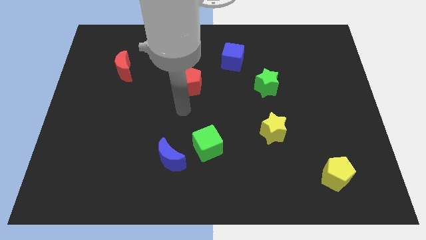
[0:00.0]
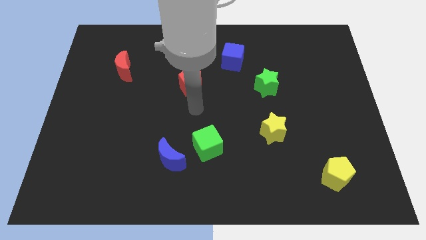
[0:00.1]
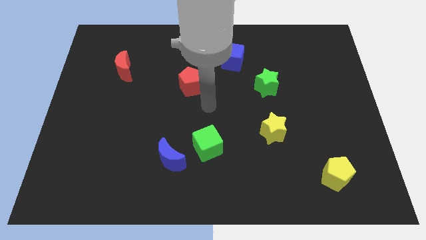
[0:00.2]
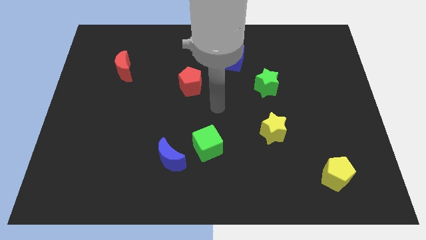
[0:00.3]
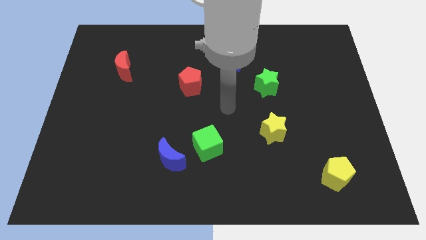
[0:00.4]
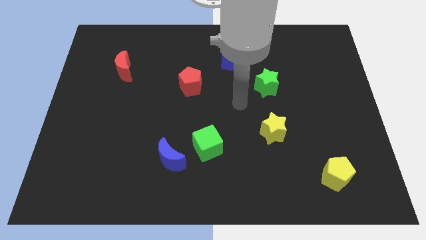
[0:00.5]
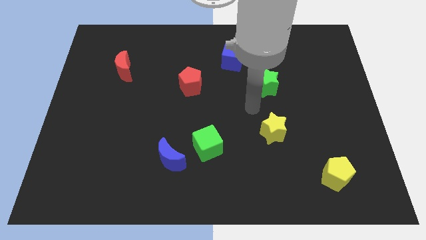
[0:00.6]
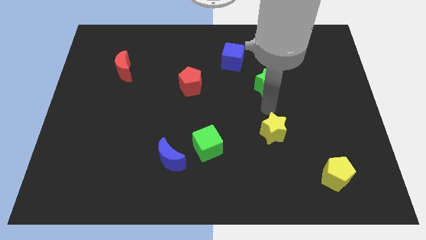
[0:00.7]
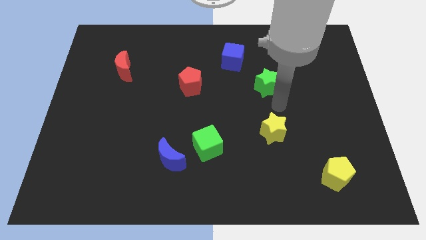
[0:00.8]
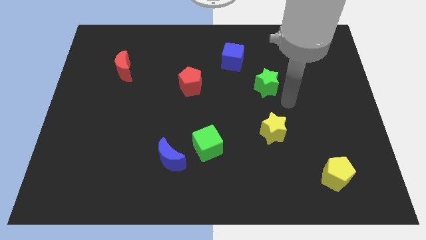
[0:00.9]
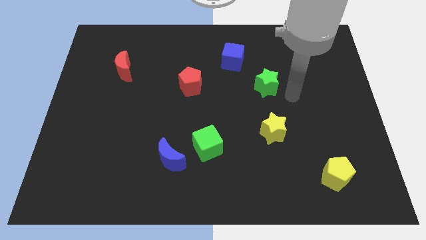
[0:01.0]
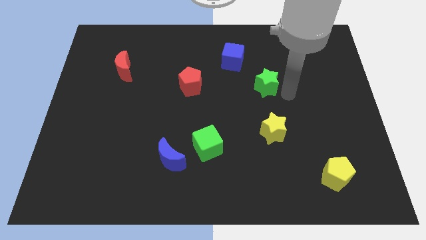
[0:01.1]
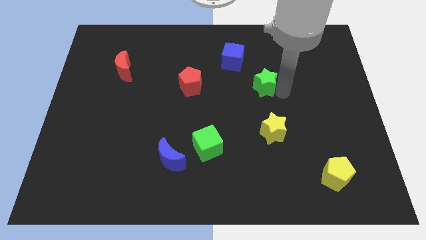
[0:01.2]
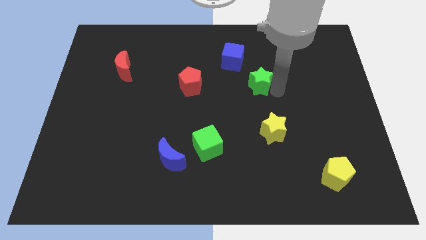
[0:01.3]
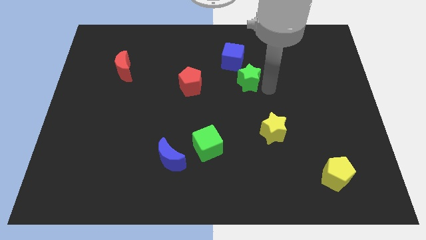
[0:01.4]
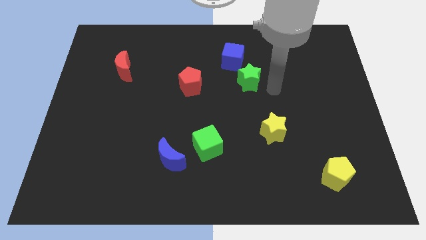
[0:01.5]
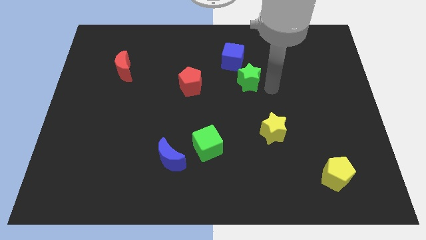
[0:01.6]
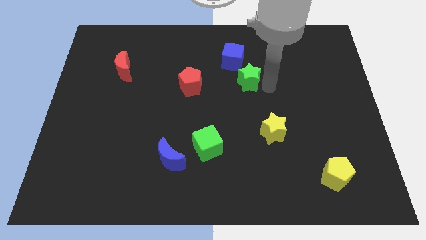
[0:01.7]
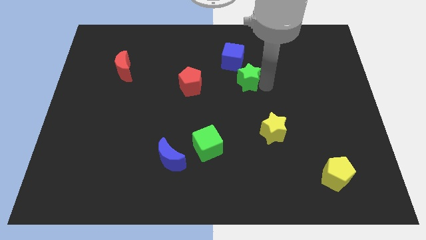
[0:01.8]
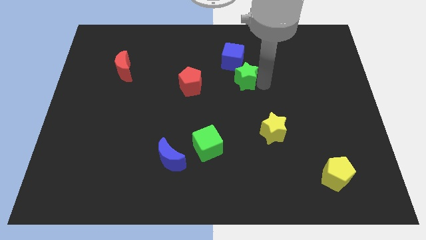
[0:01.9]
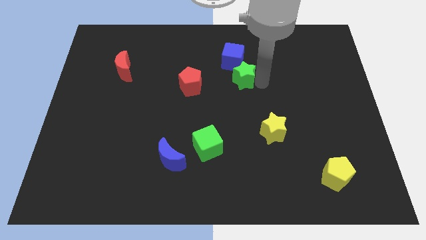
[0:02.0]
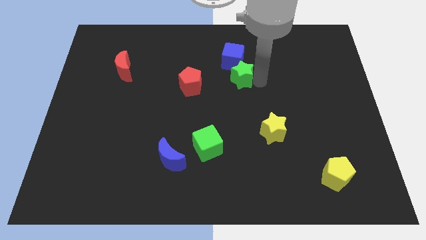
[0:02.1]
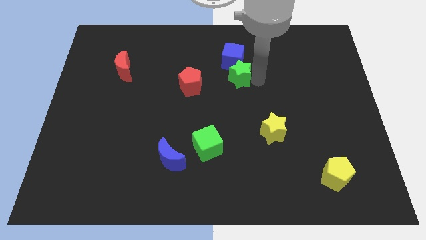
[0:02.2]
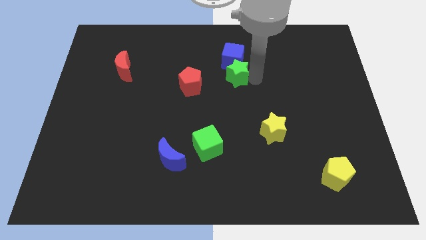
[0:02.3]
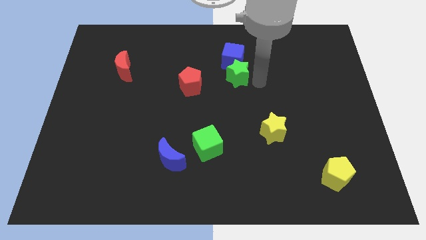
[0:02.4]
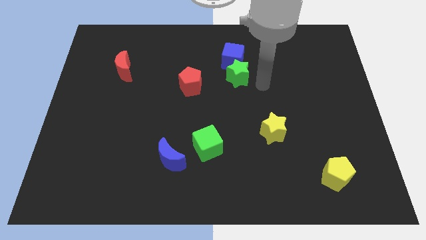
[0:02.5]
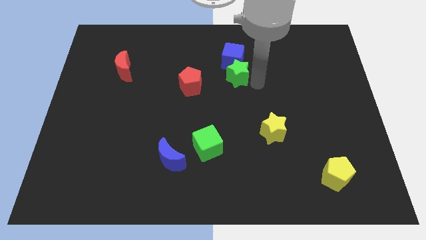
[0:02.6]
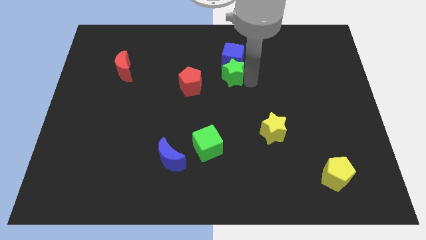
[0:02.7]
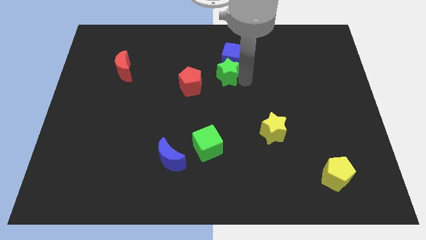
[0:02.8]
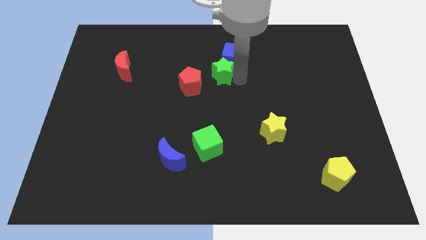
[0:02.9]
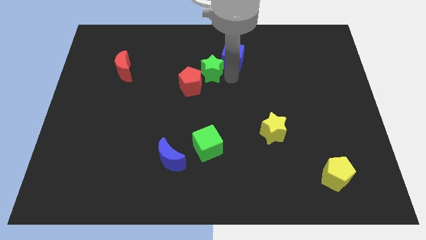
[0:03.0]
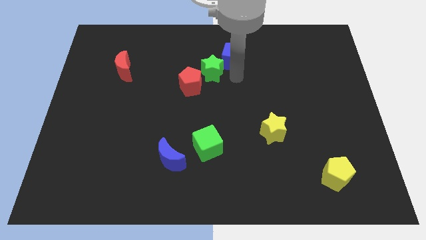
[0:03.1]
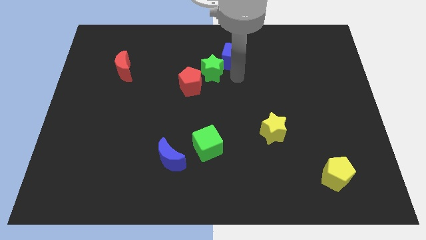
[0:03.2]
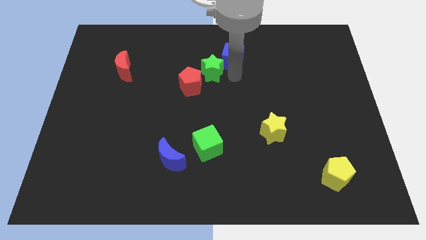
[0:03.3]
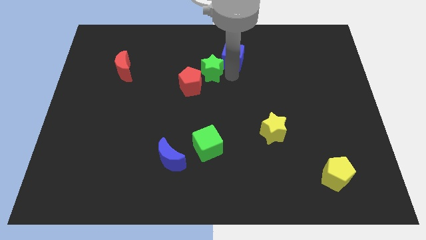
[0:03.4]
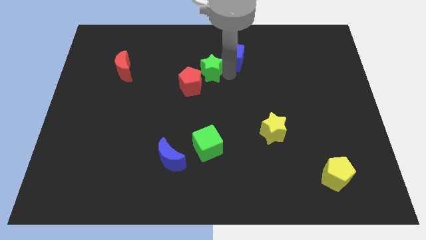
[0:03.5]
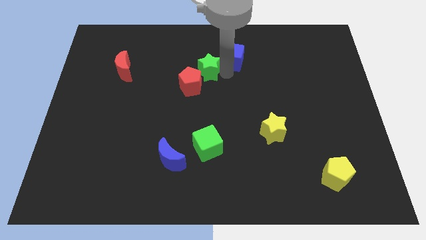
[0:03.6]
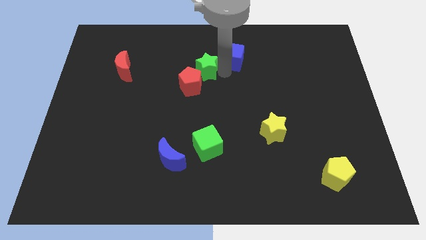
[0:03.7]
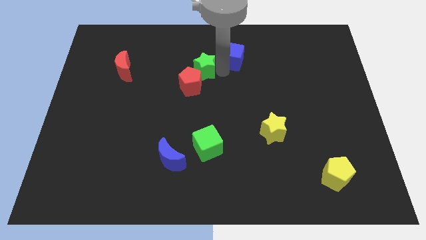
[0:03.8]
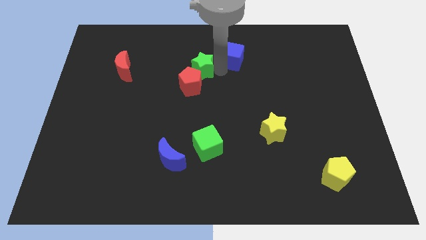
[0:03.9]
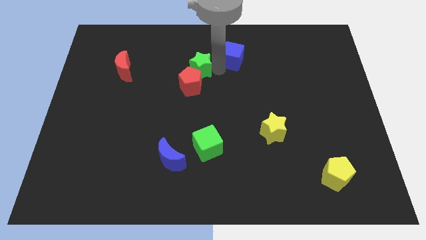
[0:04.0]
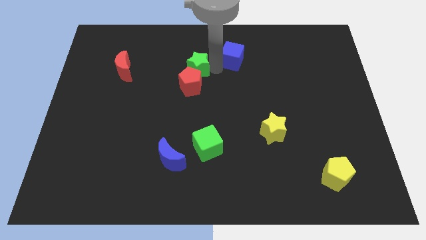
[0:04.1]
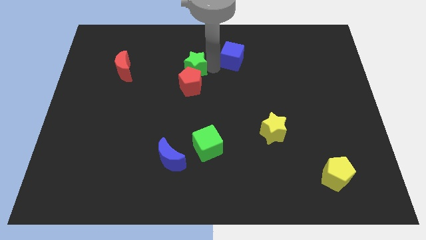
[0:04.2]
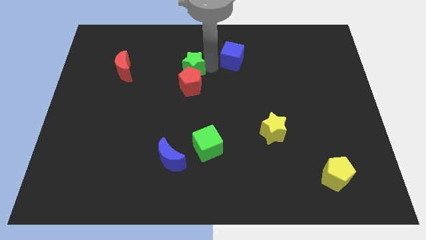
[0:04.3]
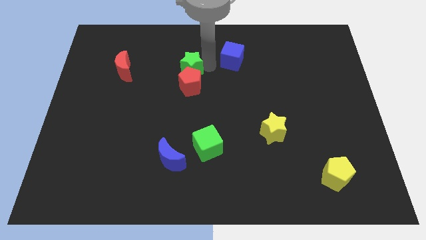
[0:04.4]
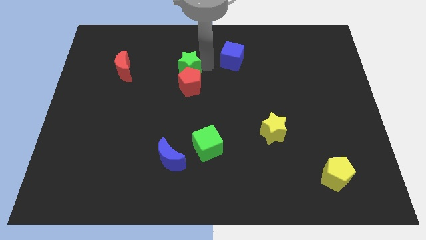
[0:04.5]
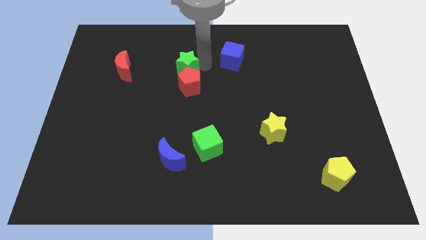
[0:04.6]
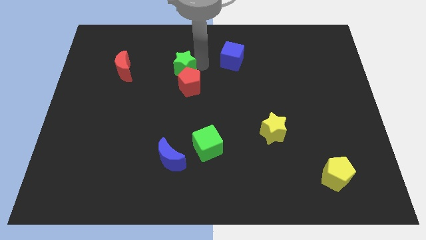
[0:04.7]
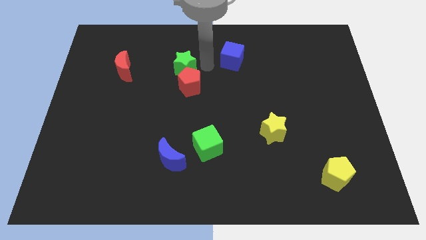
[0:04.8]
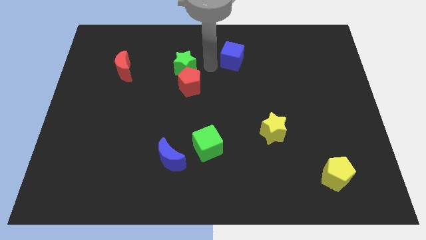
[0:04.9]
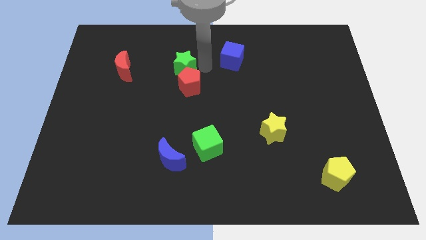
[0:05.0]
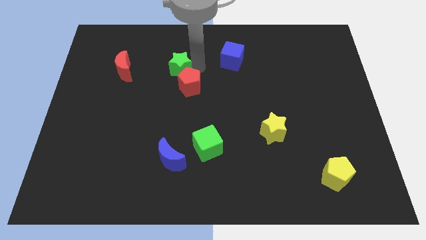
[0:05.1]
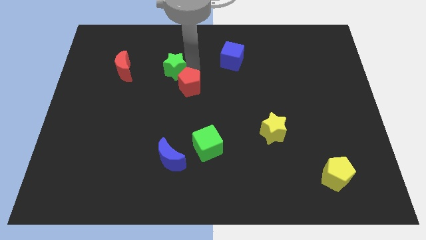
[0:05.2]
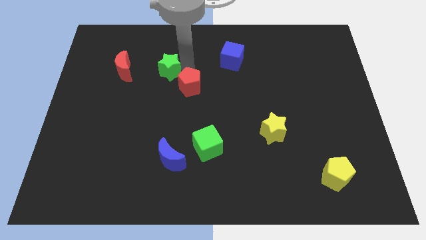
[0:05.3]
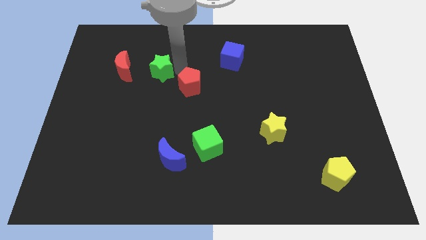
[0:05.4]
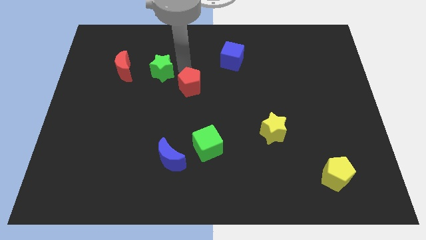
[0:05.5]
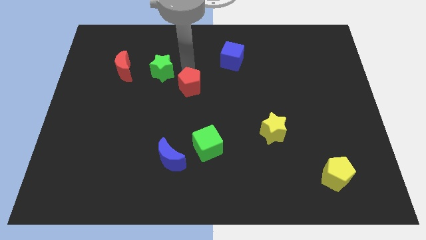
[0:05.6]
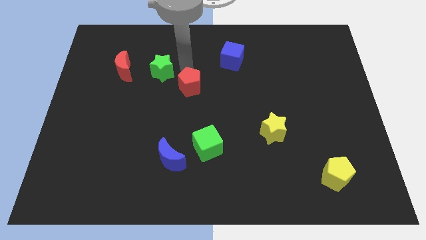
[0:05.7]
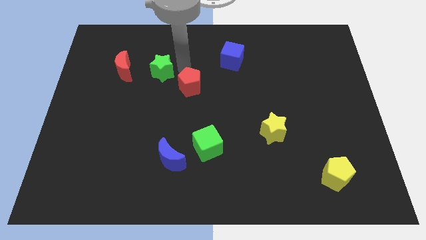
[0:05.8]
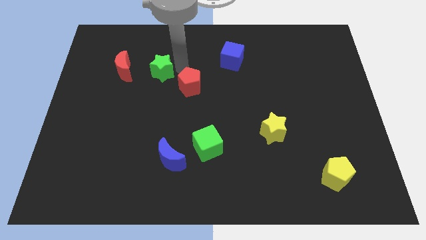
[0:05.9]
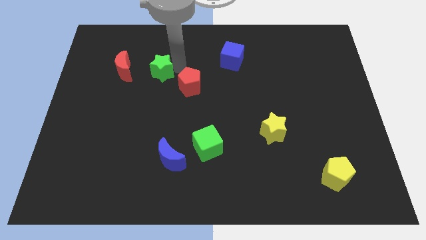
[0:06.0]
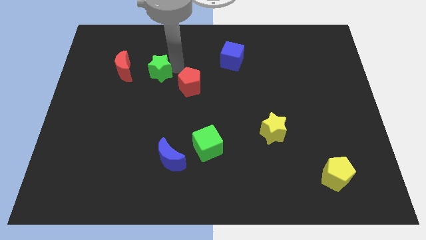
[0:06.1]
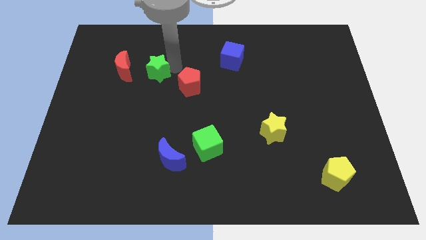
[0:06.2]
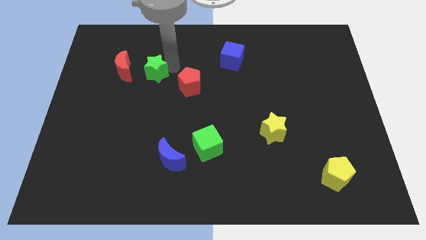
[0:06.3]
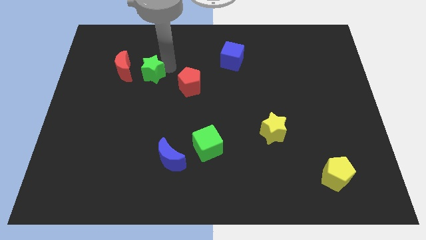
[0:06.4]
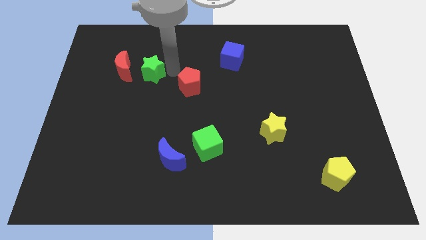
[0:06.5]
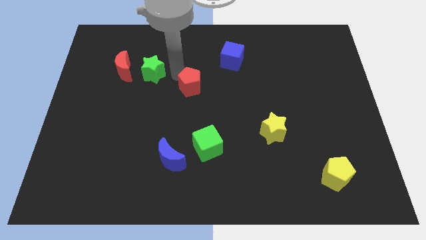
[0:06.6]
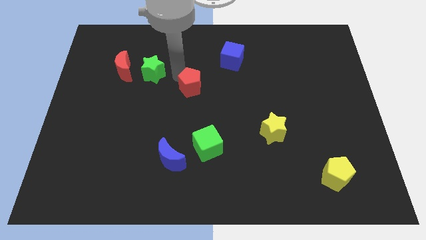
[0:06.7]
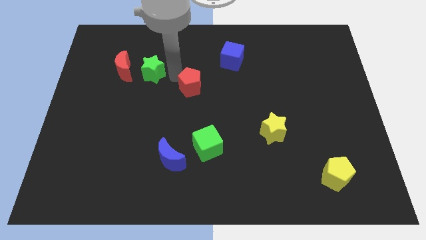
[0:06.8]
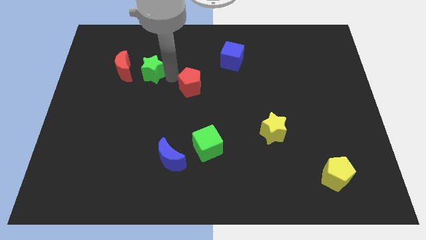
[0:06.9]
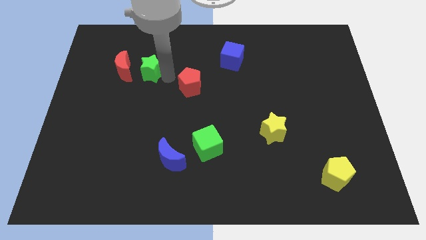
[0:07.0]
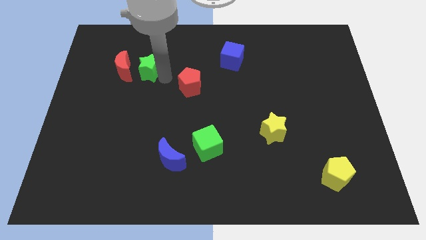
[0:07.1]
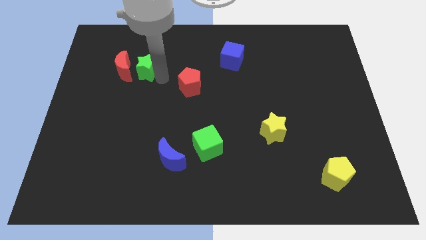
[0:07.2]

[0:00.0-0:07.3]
move the green star close to the red moon
